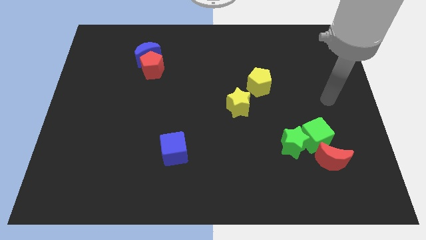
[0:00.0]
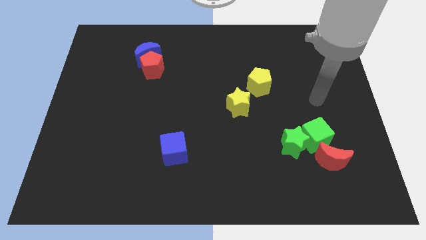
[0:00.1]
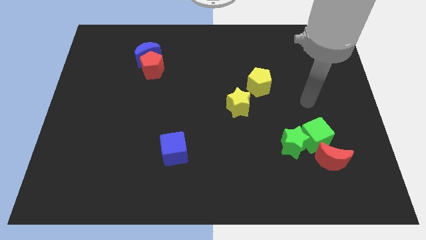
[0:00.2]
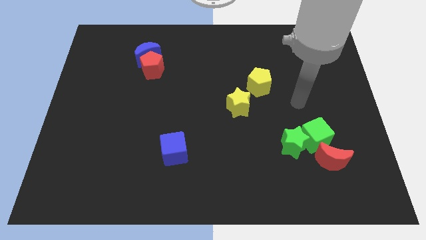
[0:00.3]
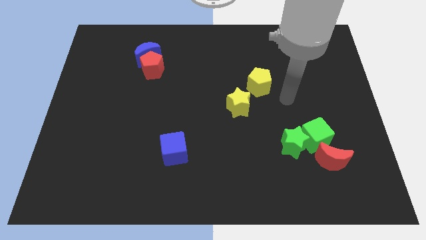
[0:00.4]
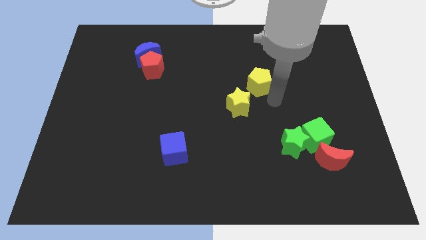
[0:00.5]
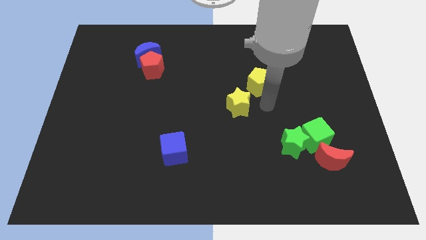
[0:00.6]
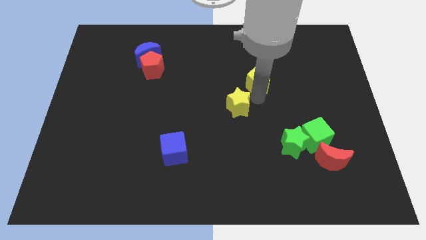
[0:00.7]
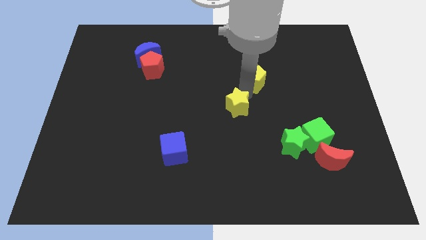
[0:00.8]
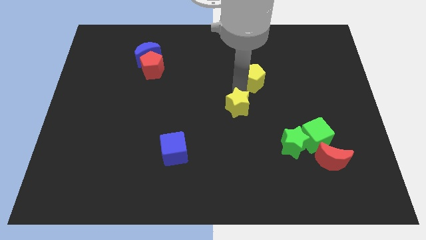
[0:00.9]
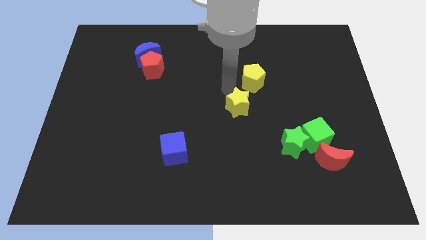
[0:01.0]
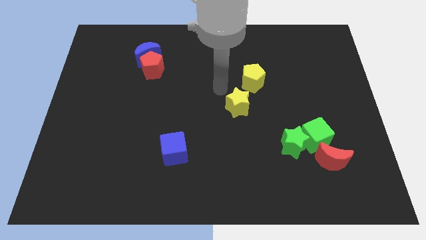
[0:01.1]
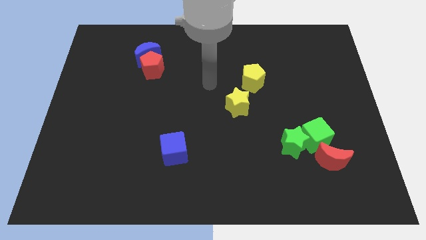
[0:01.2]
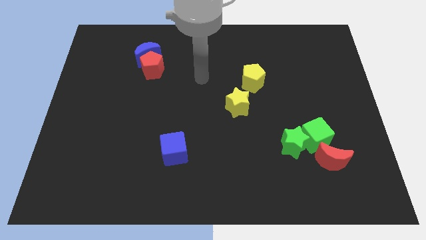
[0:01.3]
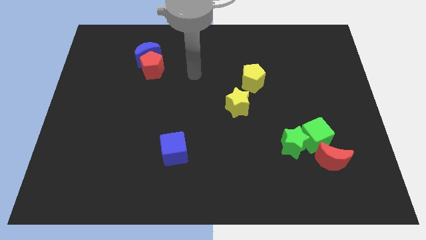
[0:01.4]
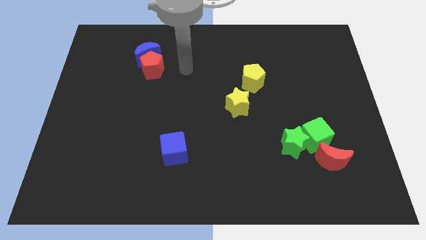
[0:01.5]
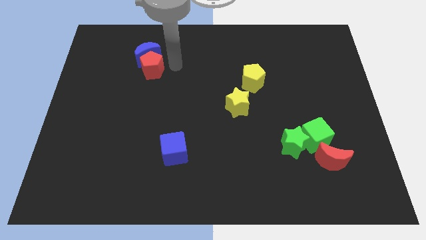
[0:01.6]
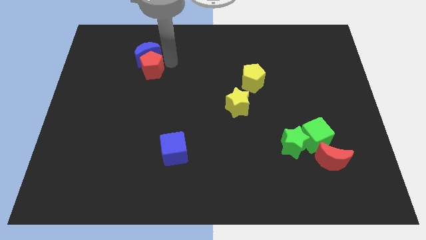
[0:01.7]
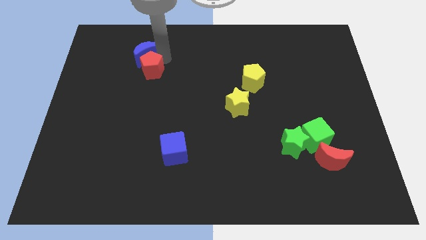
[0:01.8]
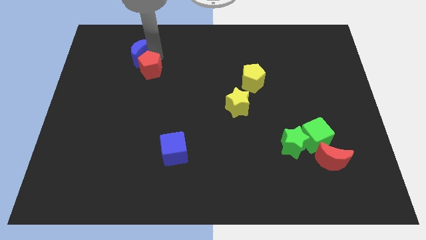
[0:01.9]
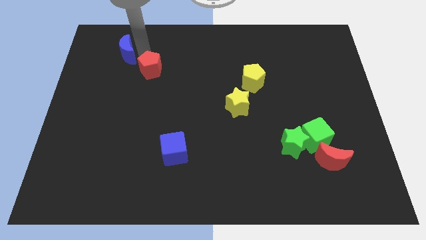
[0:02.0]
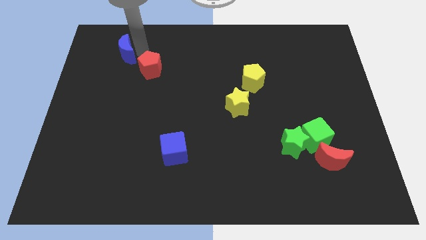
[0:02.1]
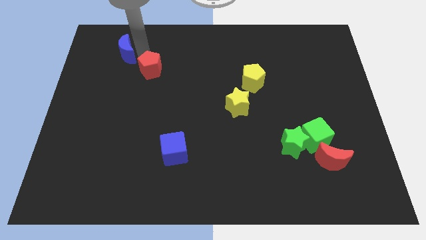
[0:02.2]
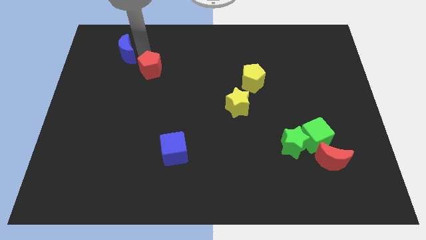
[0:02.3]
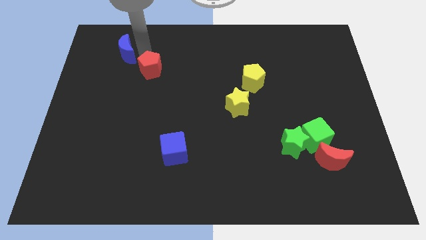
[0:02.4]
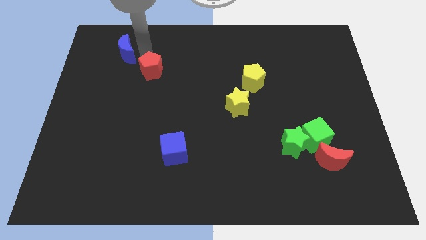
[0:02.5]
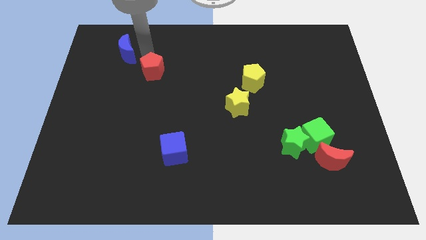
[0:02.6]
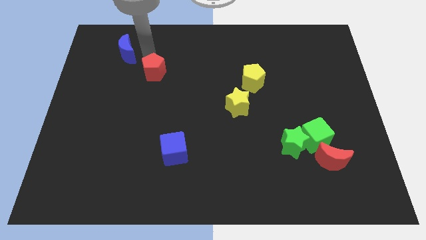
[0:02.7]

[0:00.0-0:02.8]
pull the red pentagon apart from the blue moon

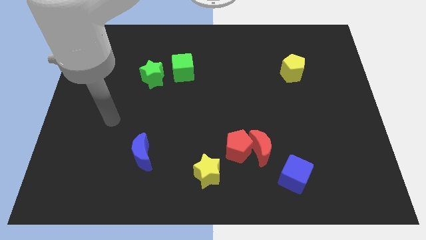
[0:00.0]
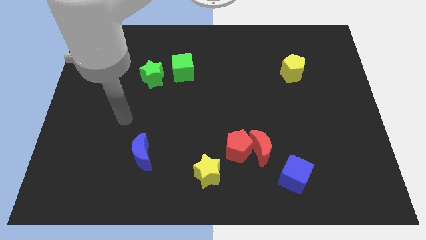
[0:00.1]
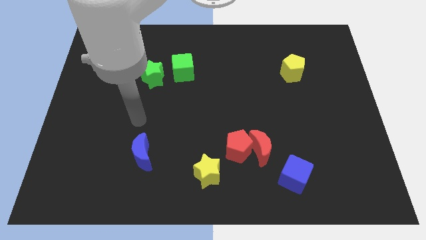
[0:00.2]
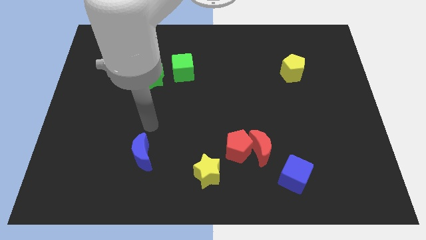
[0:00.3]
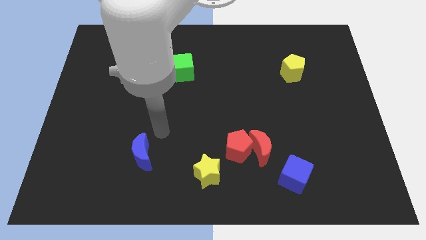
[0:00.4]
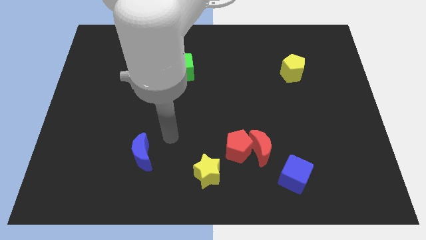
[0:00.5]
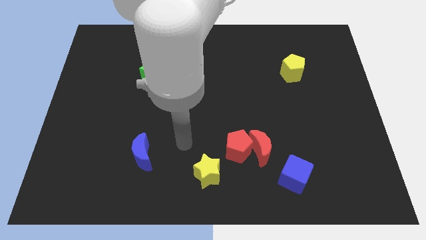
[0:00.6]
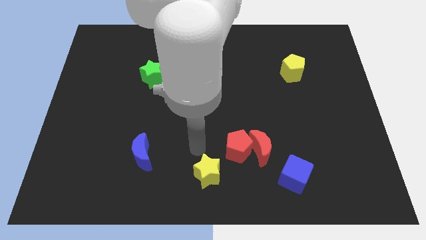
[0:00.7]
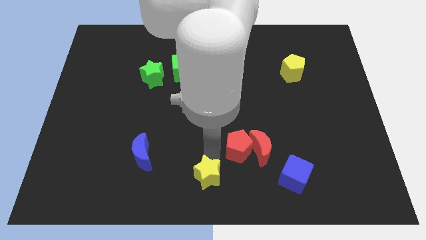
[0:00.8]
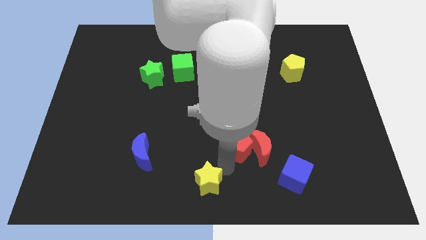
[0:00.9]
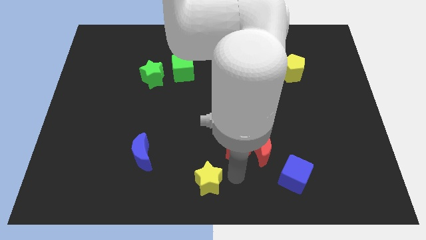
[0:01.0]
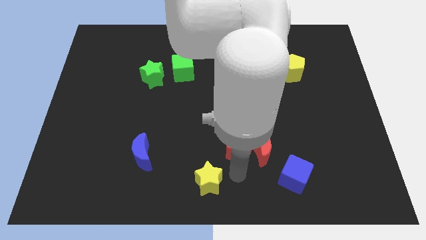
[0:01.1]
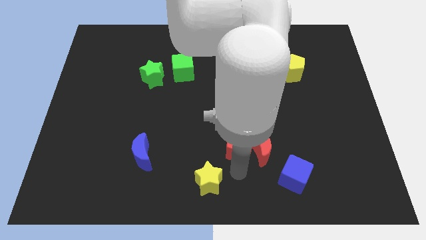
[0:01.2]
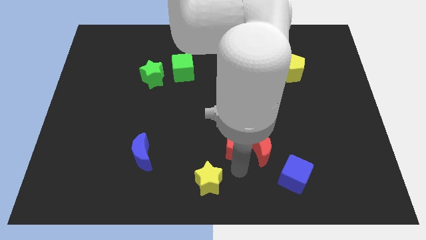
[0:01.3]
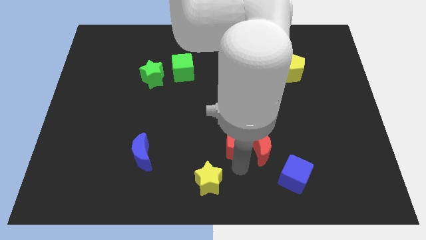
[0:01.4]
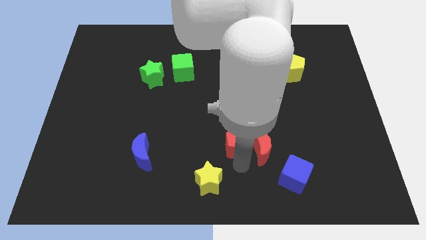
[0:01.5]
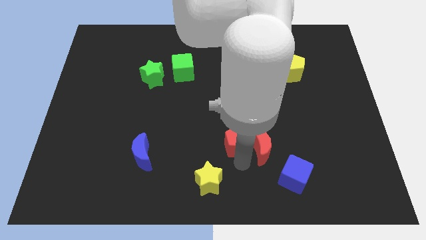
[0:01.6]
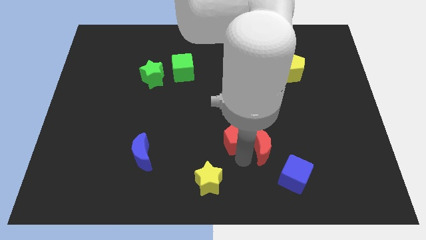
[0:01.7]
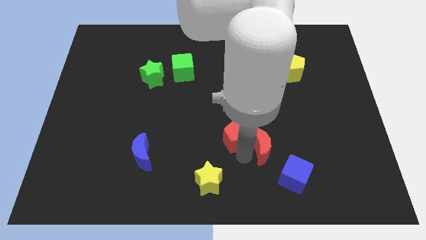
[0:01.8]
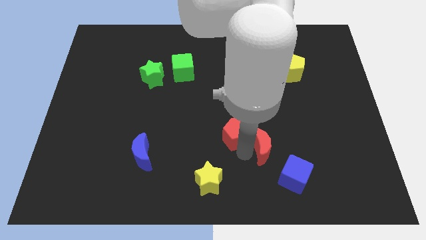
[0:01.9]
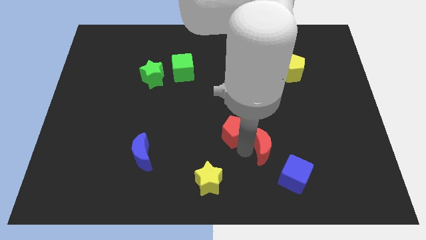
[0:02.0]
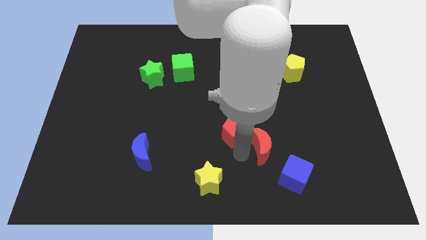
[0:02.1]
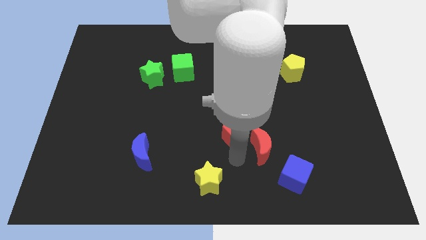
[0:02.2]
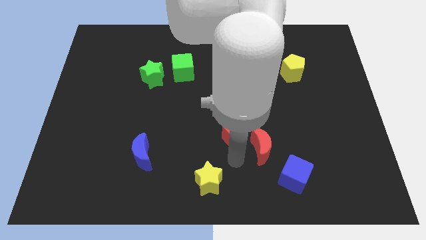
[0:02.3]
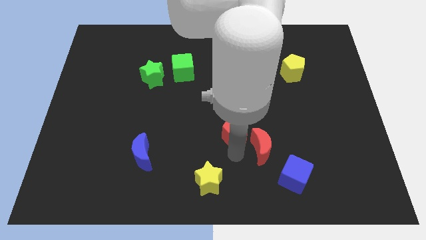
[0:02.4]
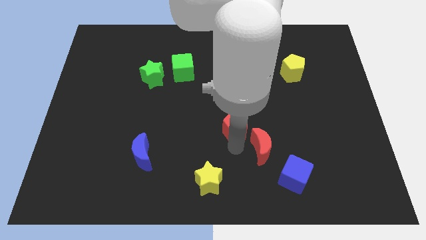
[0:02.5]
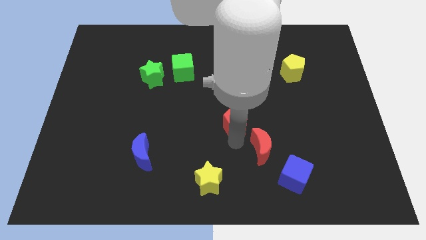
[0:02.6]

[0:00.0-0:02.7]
move the red pentagon away from the red moon and yellow star

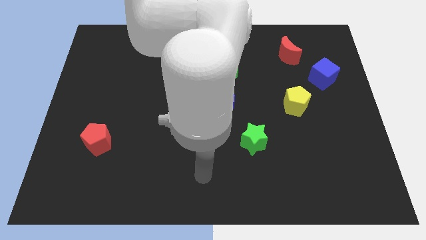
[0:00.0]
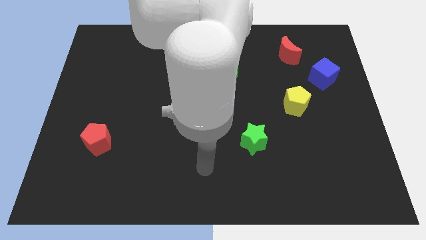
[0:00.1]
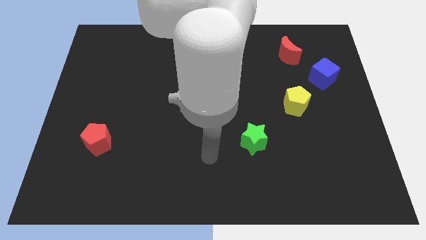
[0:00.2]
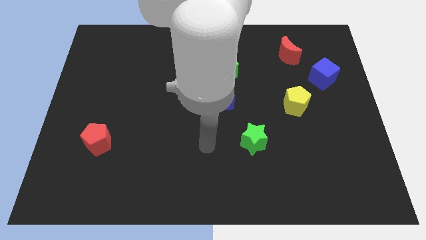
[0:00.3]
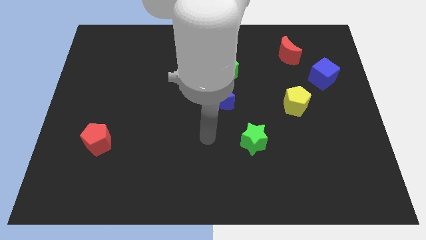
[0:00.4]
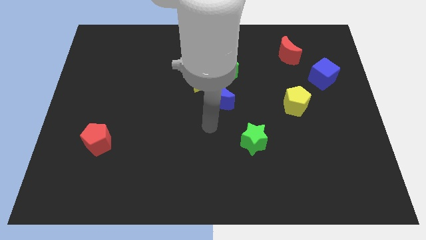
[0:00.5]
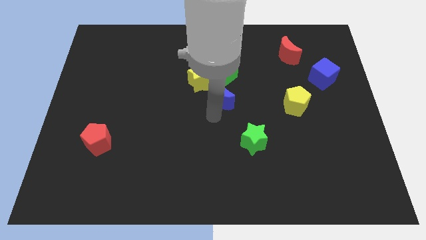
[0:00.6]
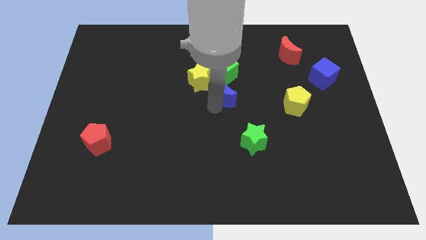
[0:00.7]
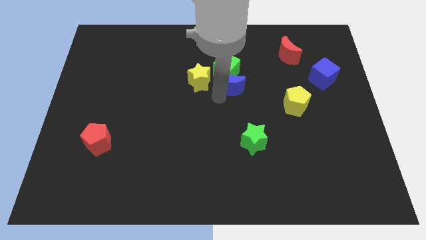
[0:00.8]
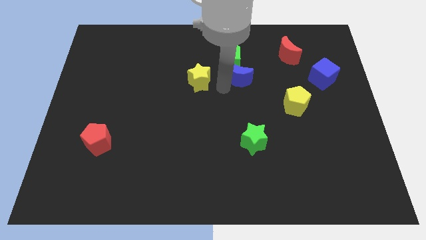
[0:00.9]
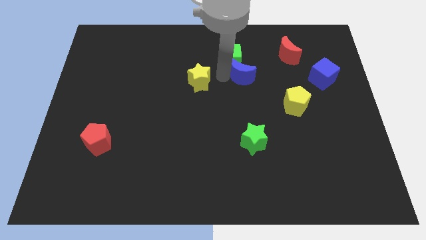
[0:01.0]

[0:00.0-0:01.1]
move the yellow star away from the green cube and blue moon

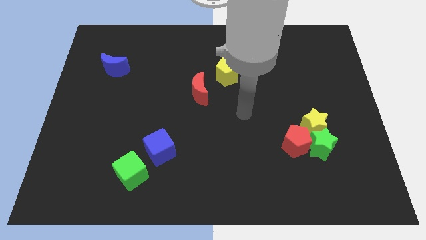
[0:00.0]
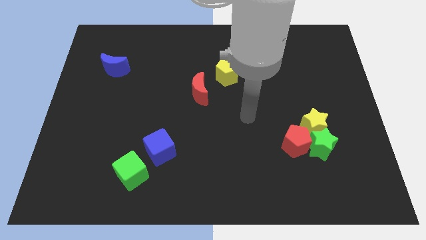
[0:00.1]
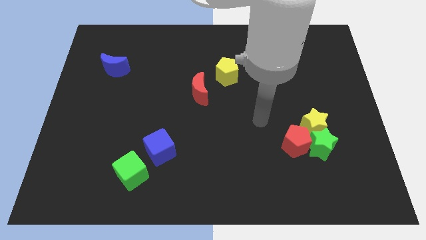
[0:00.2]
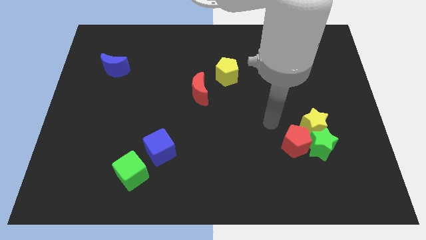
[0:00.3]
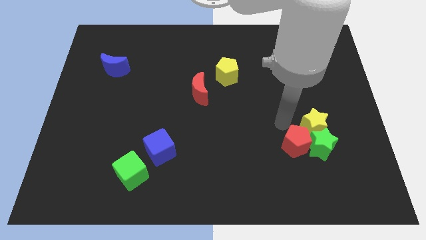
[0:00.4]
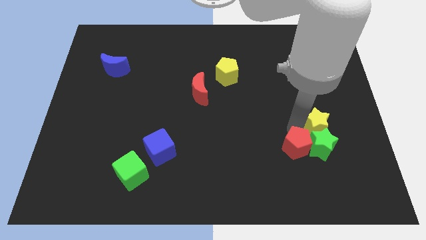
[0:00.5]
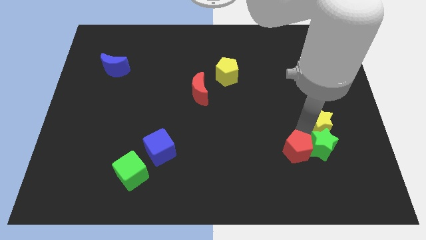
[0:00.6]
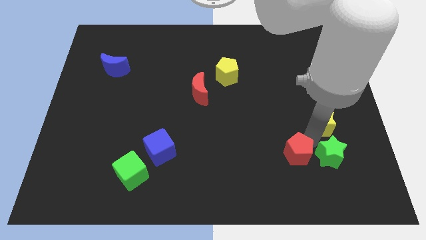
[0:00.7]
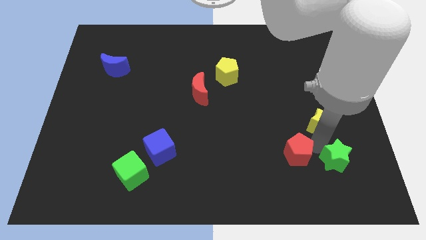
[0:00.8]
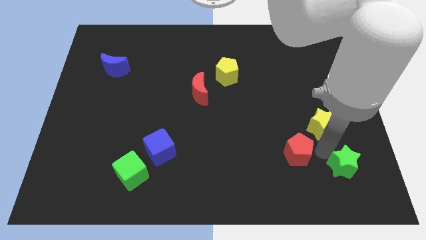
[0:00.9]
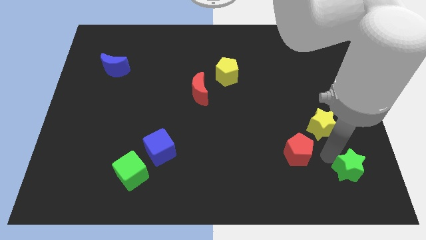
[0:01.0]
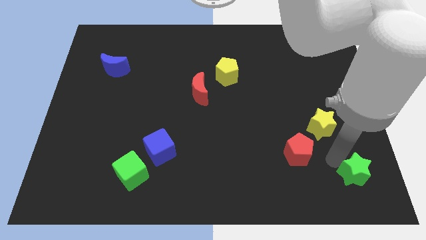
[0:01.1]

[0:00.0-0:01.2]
separate the green star from the yellow star and red pentagon

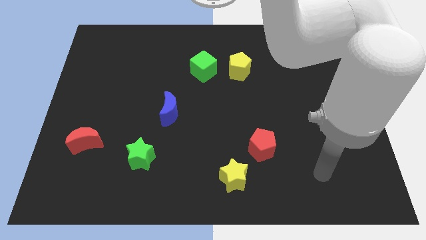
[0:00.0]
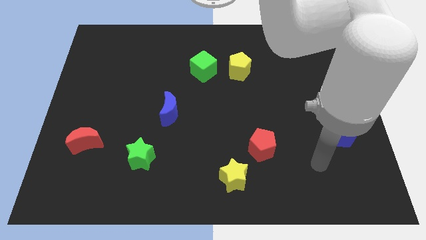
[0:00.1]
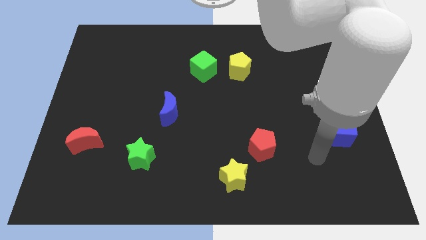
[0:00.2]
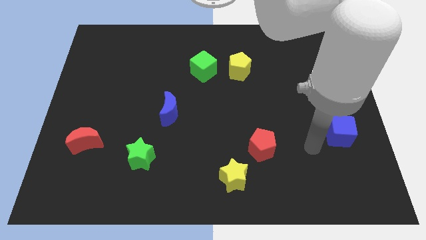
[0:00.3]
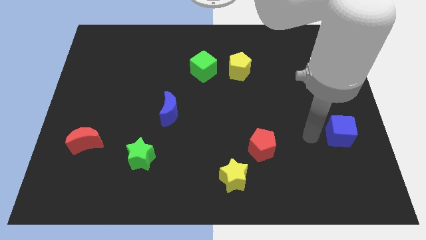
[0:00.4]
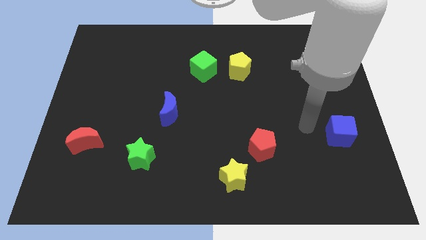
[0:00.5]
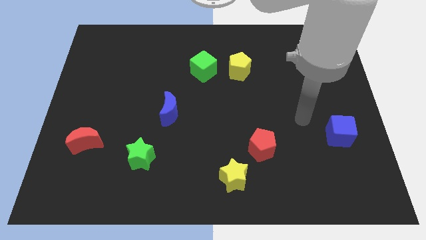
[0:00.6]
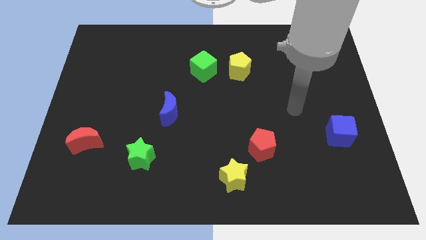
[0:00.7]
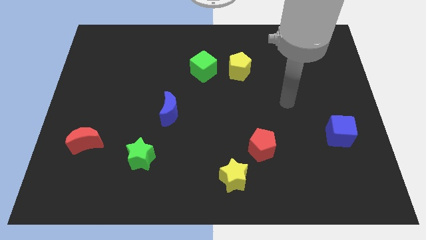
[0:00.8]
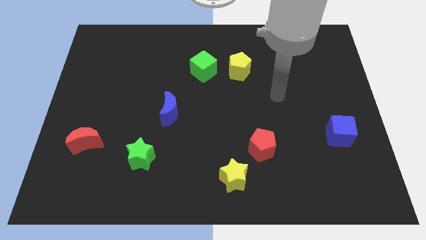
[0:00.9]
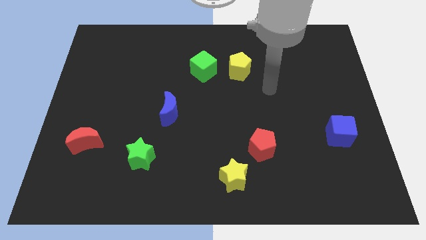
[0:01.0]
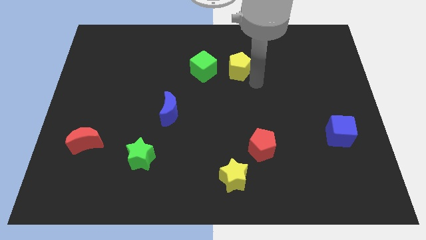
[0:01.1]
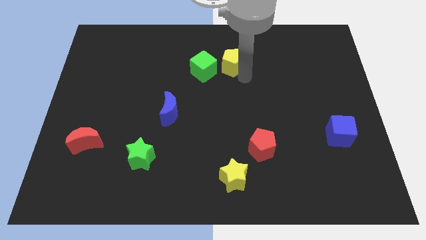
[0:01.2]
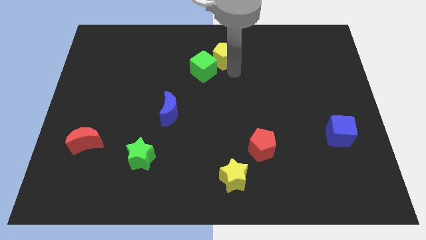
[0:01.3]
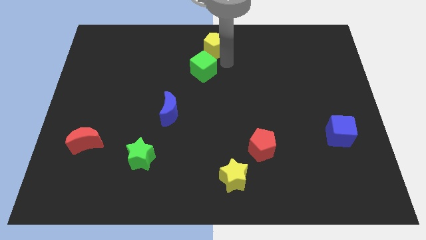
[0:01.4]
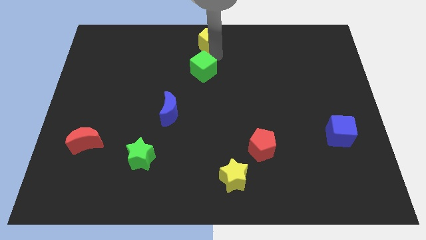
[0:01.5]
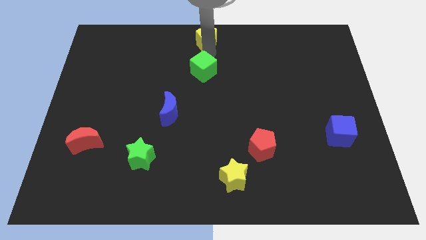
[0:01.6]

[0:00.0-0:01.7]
separate the green cube from the yellow pentagon
